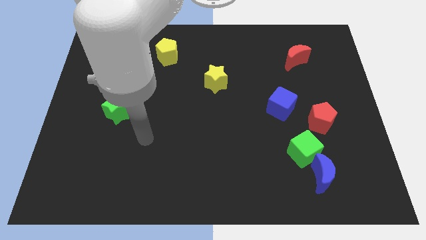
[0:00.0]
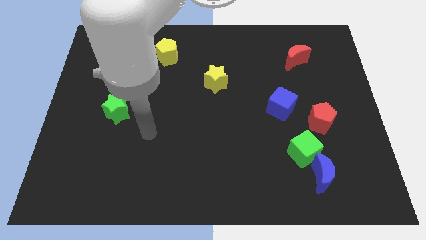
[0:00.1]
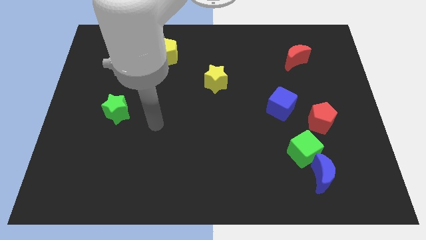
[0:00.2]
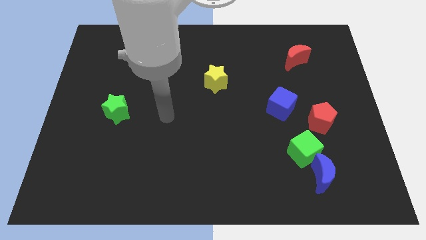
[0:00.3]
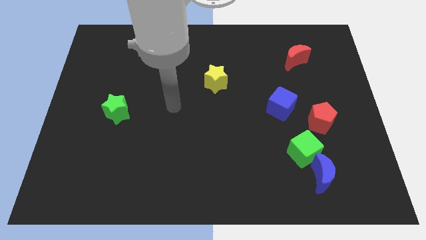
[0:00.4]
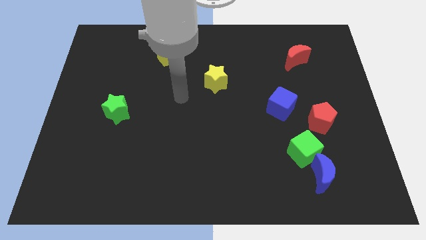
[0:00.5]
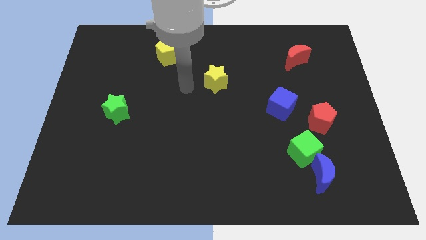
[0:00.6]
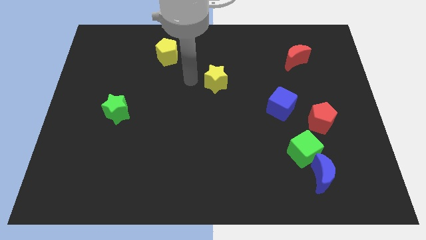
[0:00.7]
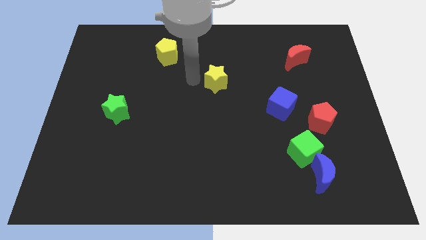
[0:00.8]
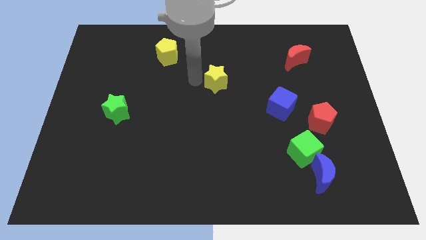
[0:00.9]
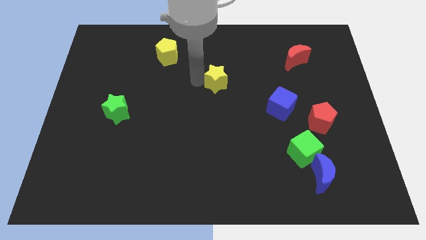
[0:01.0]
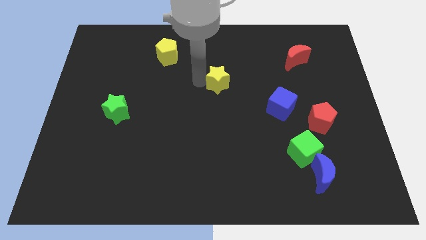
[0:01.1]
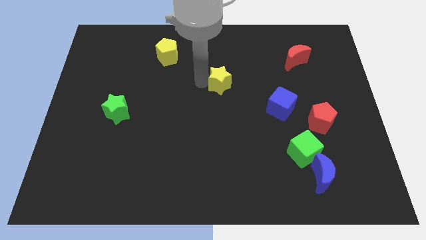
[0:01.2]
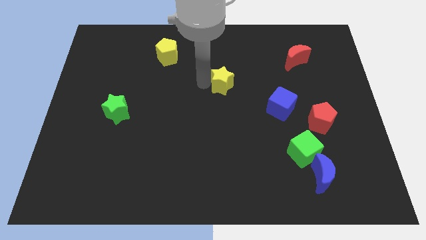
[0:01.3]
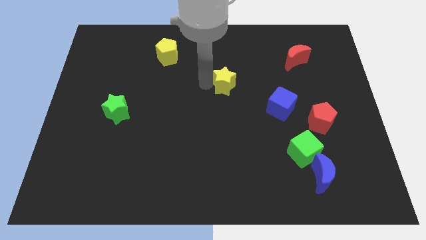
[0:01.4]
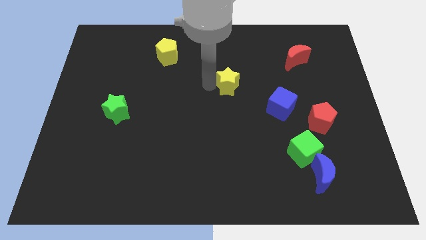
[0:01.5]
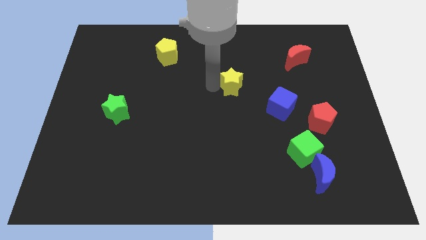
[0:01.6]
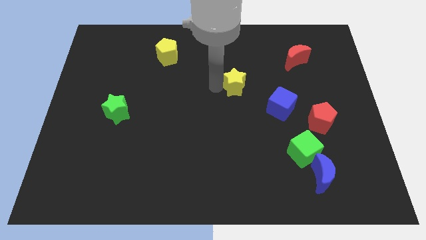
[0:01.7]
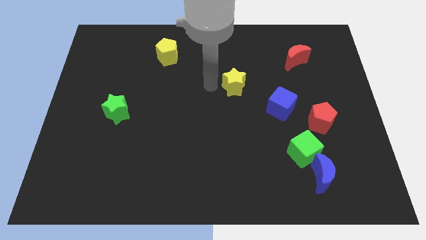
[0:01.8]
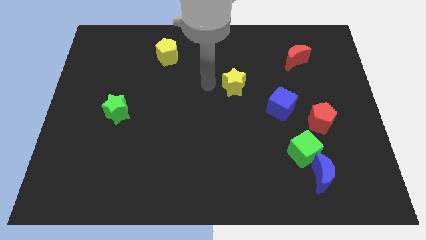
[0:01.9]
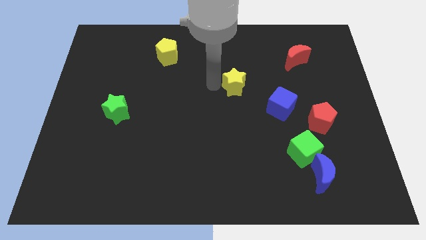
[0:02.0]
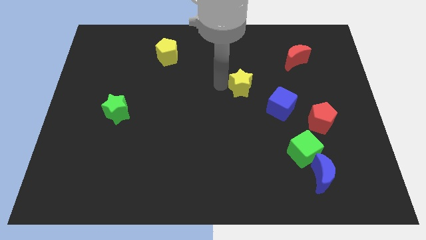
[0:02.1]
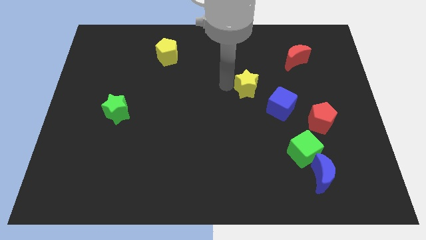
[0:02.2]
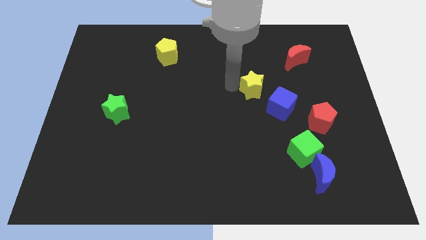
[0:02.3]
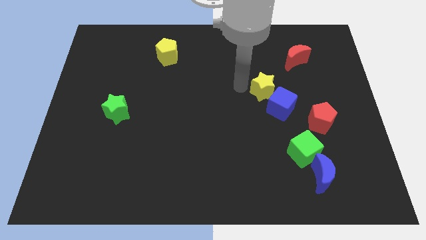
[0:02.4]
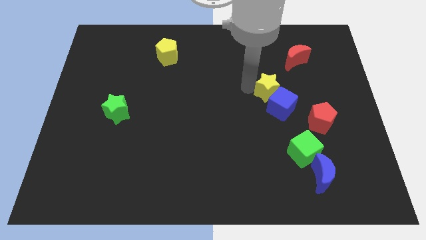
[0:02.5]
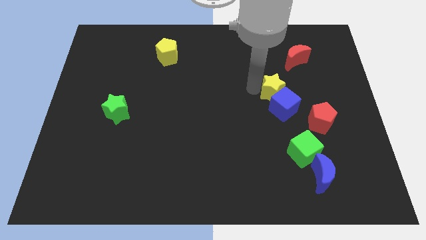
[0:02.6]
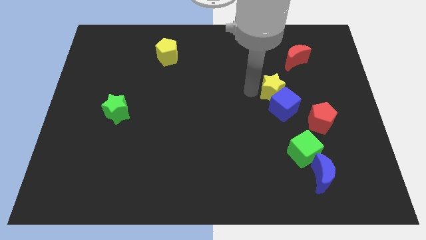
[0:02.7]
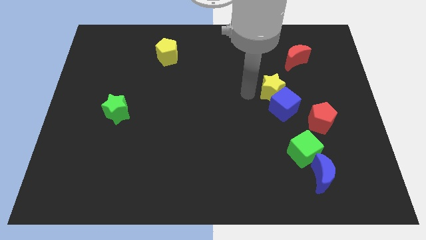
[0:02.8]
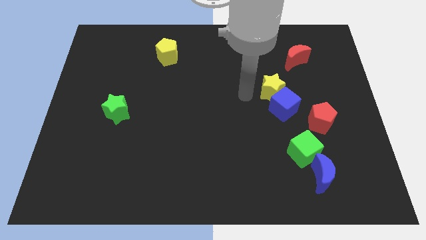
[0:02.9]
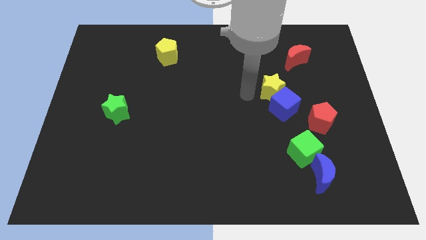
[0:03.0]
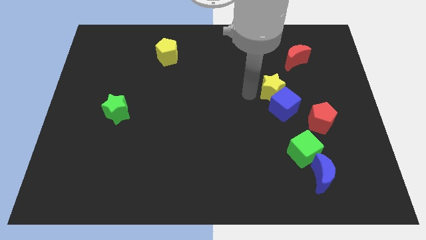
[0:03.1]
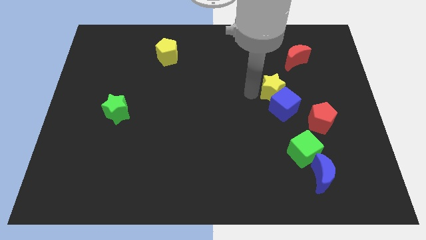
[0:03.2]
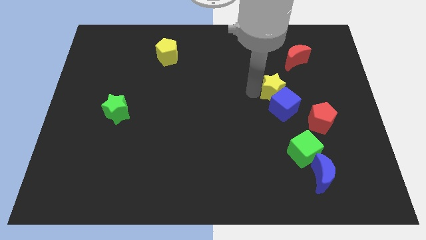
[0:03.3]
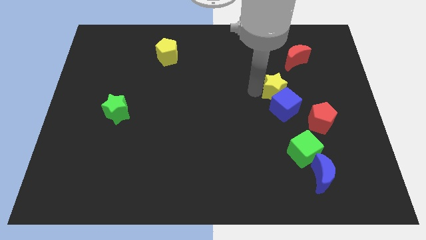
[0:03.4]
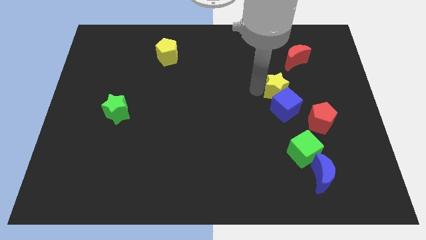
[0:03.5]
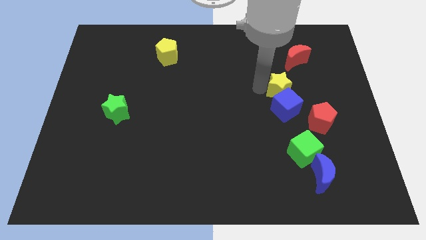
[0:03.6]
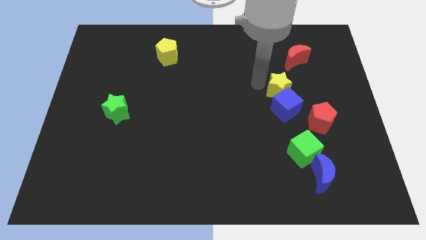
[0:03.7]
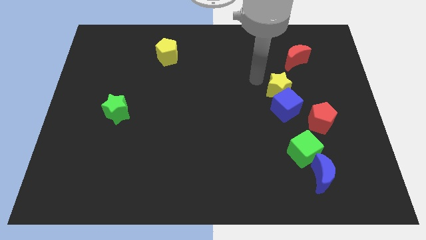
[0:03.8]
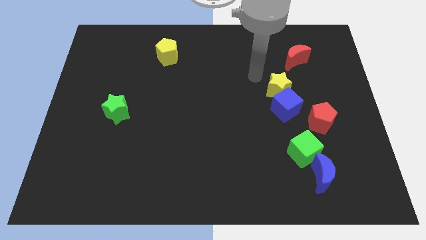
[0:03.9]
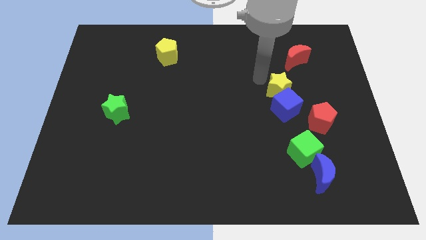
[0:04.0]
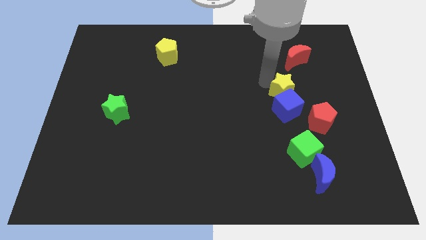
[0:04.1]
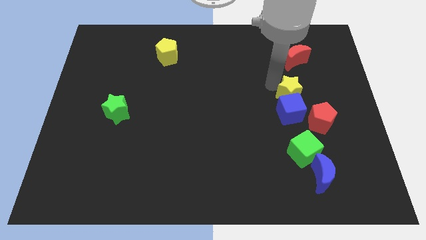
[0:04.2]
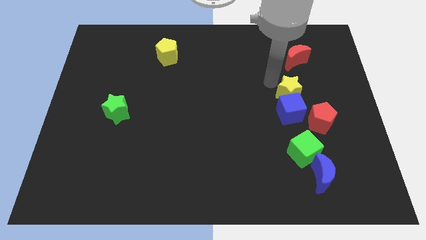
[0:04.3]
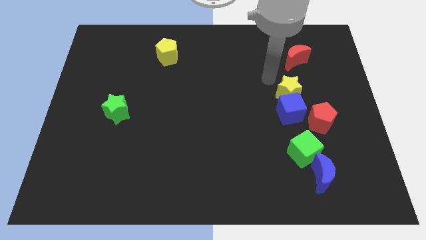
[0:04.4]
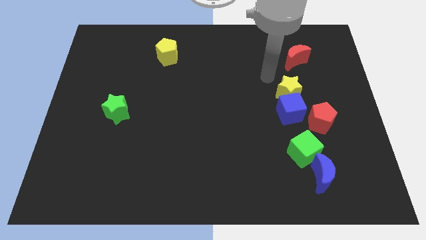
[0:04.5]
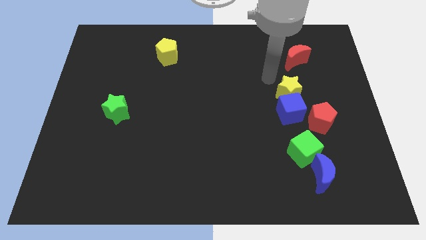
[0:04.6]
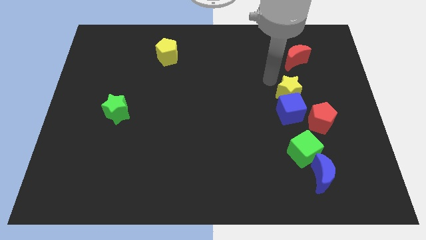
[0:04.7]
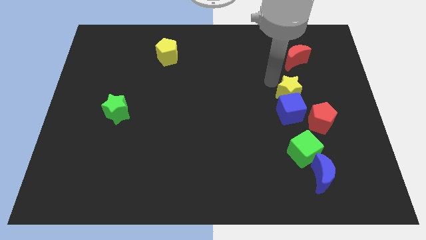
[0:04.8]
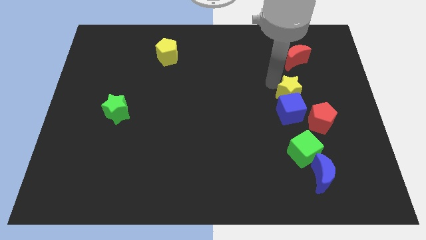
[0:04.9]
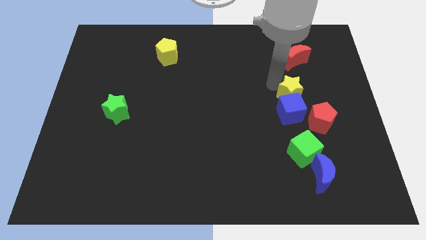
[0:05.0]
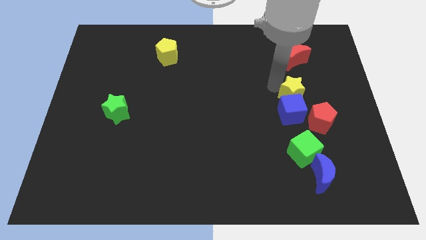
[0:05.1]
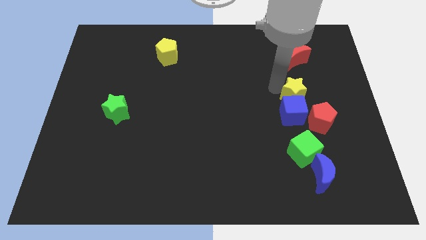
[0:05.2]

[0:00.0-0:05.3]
put the yellow star to the top side of the green cube

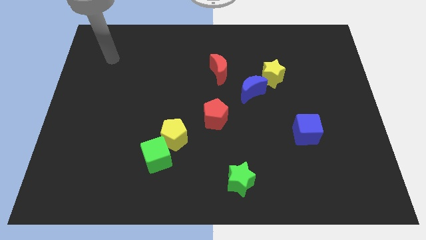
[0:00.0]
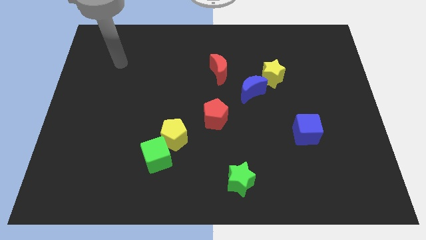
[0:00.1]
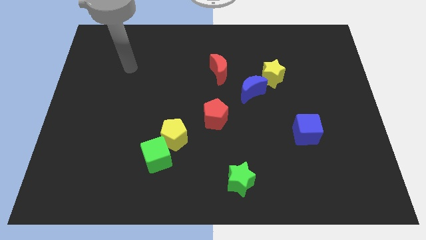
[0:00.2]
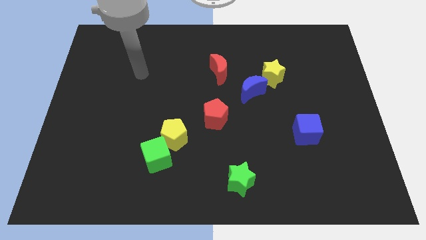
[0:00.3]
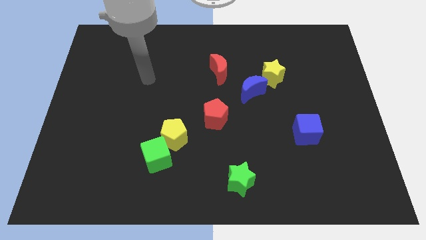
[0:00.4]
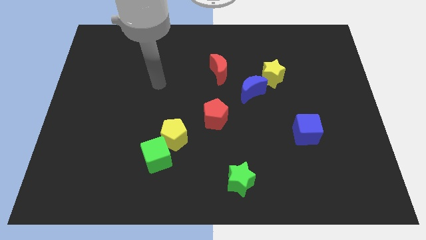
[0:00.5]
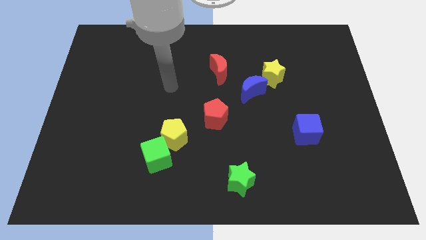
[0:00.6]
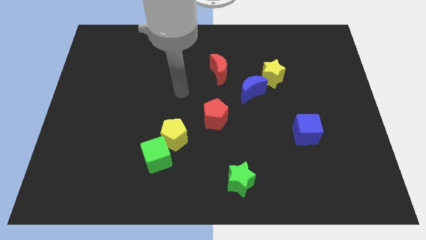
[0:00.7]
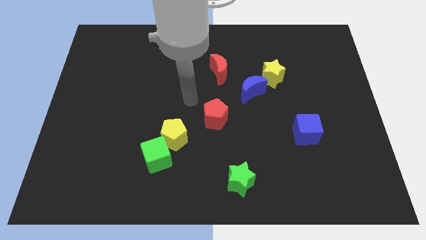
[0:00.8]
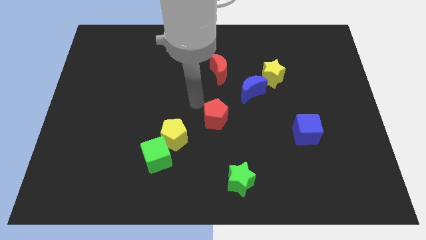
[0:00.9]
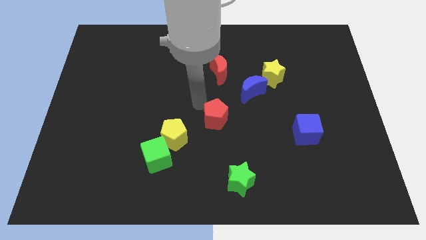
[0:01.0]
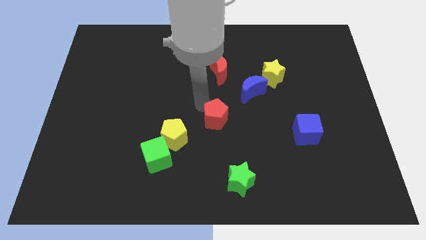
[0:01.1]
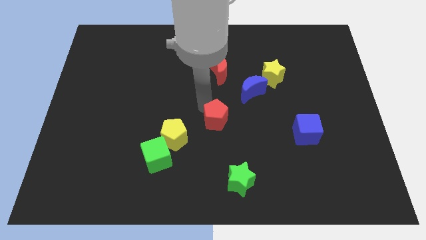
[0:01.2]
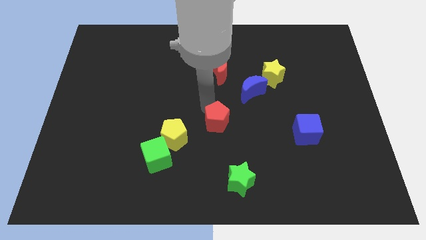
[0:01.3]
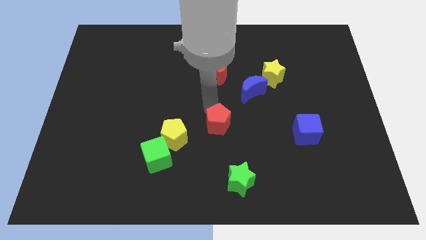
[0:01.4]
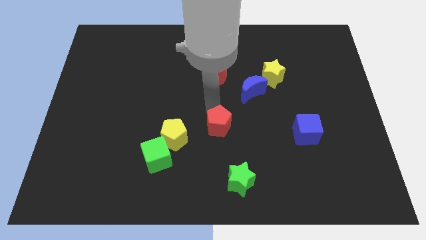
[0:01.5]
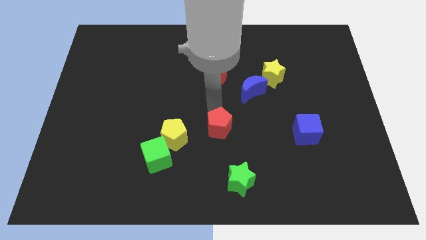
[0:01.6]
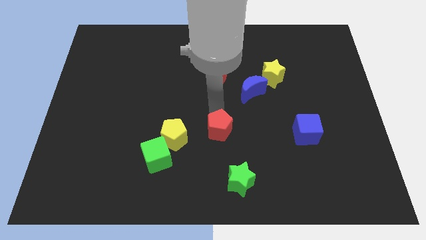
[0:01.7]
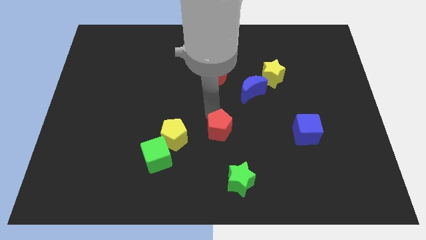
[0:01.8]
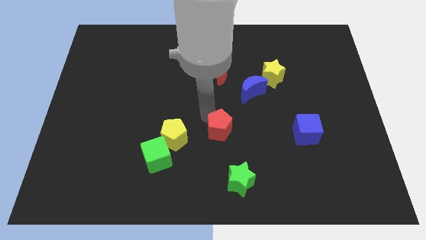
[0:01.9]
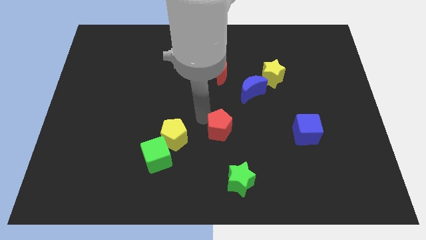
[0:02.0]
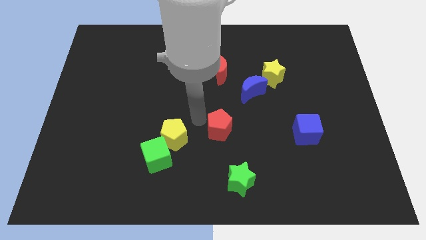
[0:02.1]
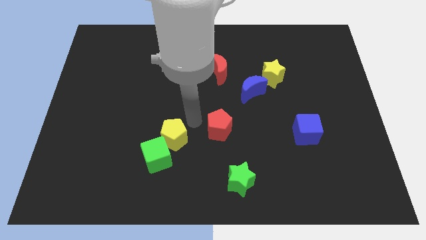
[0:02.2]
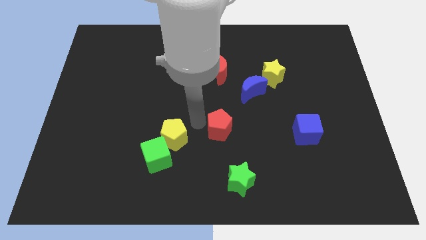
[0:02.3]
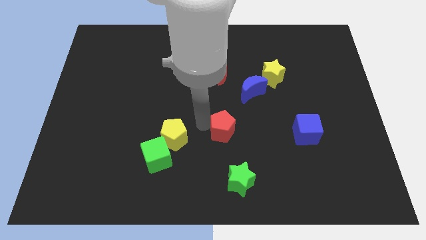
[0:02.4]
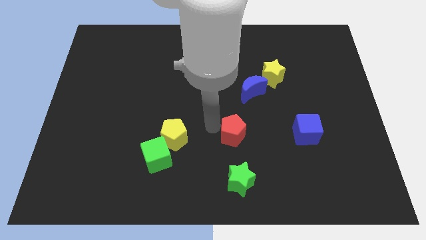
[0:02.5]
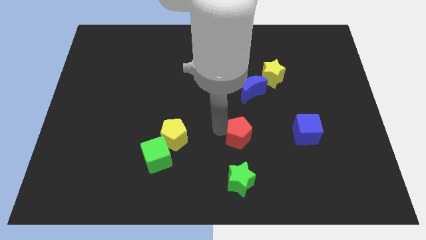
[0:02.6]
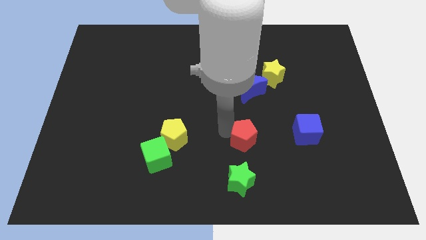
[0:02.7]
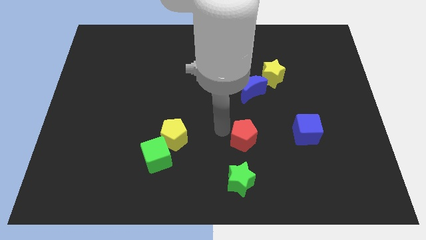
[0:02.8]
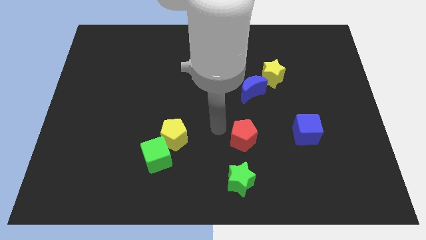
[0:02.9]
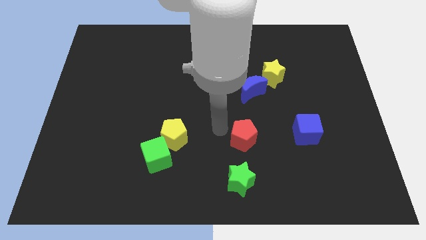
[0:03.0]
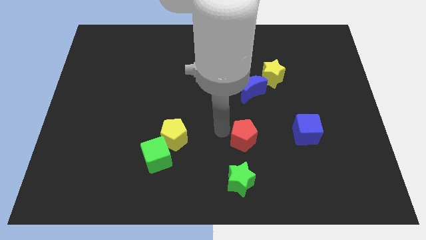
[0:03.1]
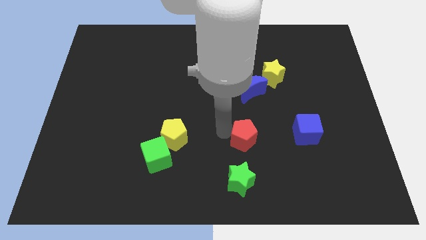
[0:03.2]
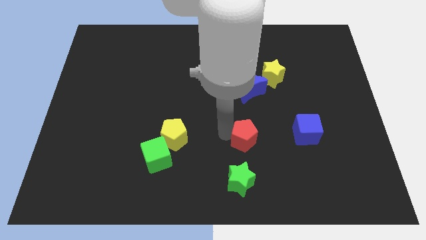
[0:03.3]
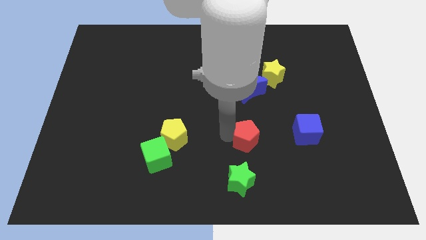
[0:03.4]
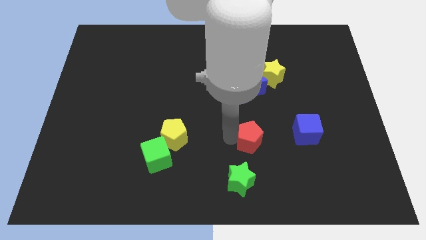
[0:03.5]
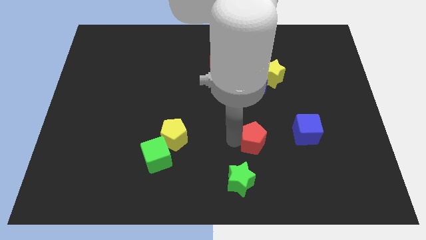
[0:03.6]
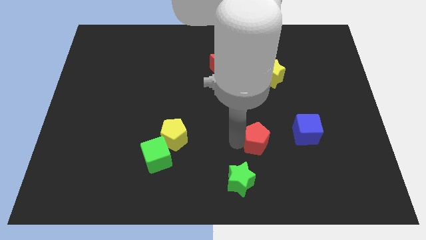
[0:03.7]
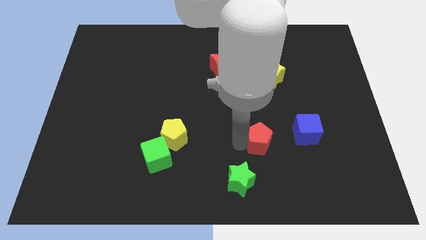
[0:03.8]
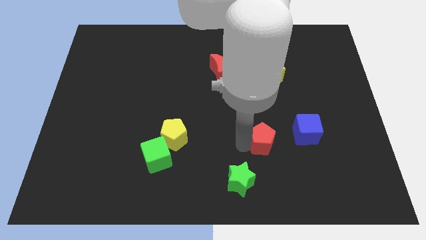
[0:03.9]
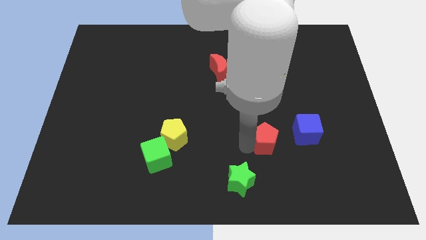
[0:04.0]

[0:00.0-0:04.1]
push the red pentagon to the bottom left side of the blue cube
